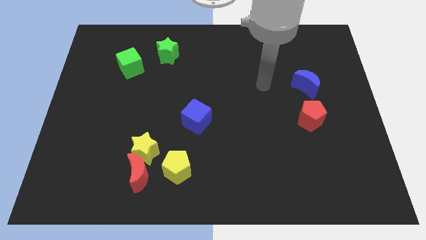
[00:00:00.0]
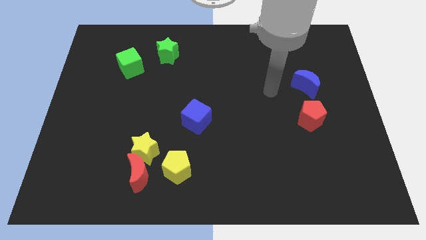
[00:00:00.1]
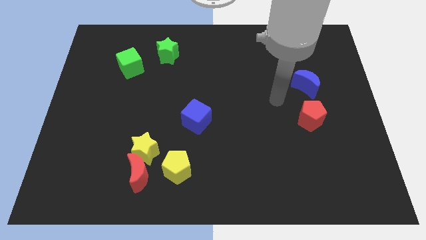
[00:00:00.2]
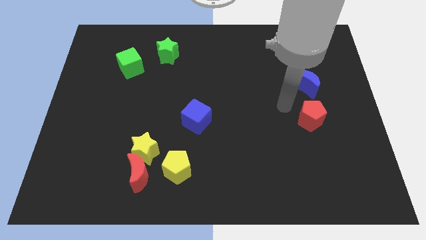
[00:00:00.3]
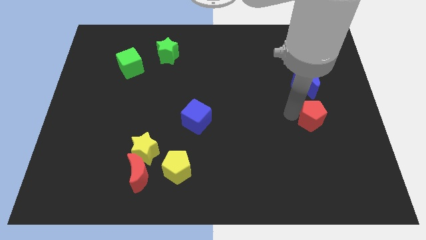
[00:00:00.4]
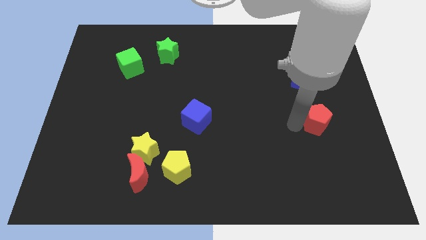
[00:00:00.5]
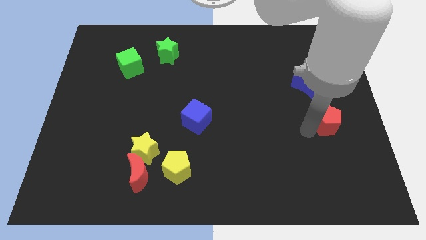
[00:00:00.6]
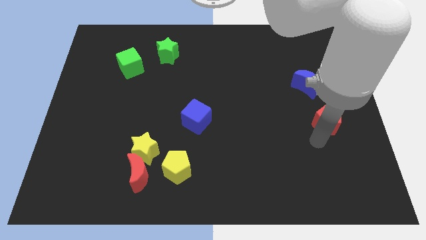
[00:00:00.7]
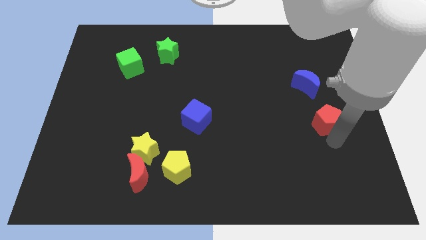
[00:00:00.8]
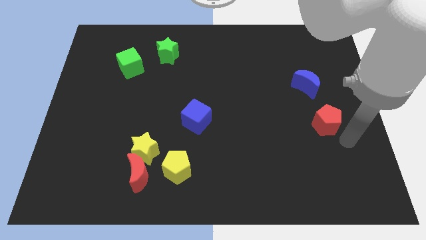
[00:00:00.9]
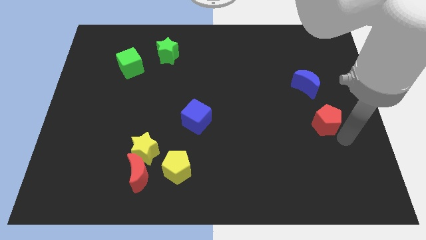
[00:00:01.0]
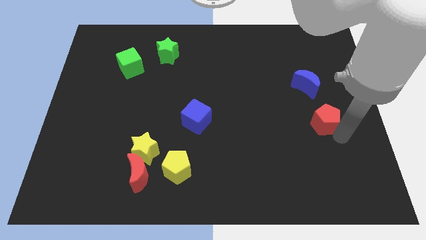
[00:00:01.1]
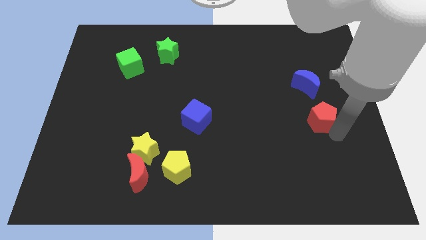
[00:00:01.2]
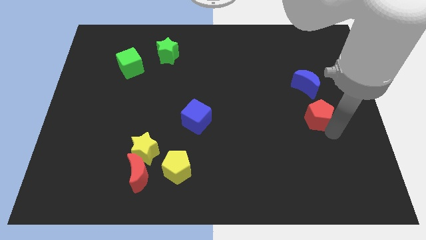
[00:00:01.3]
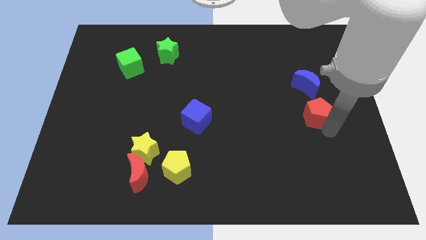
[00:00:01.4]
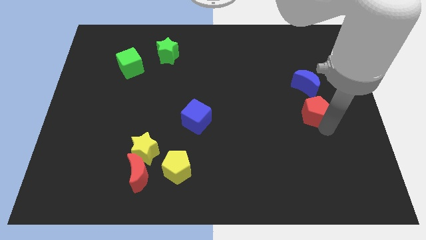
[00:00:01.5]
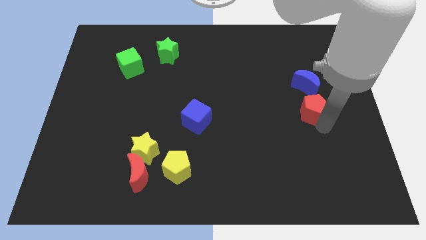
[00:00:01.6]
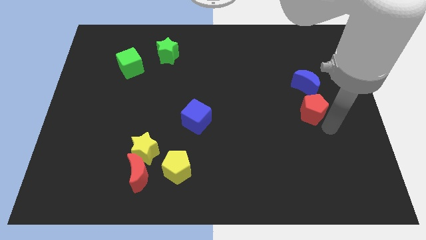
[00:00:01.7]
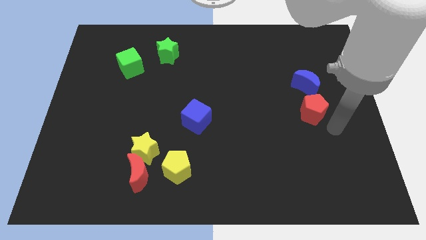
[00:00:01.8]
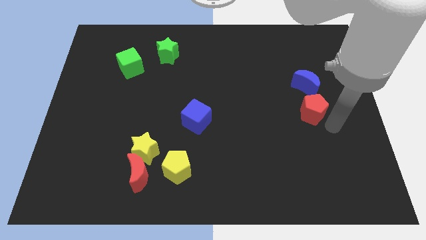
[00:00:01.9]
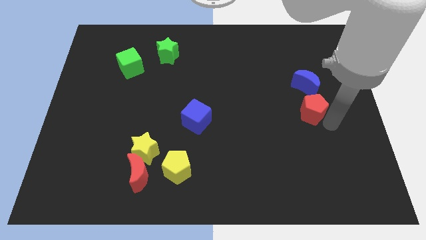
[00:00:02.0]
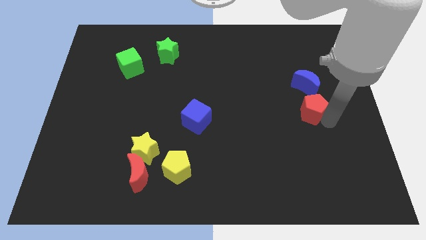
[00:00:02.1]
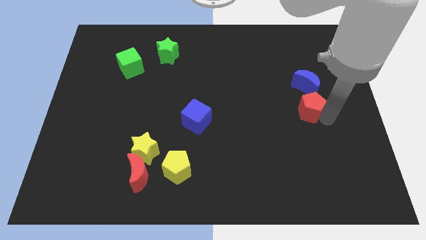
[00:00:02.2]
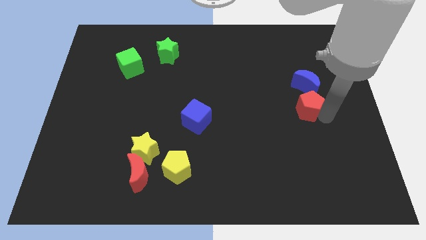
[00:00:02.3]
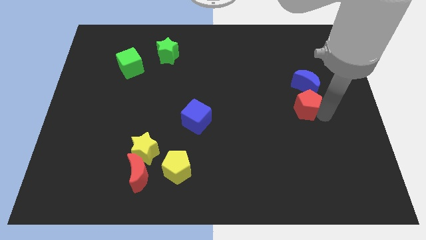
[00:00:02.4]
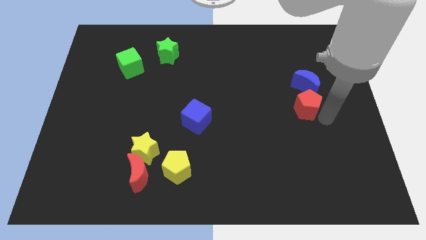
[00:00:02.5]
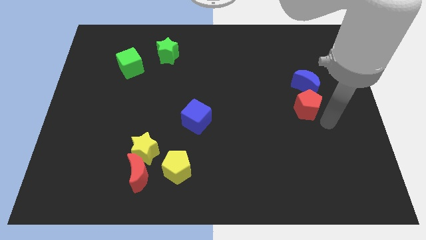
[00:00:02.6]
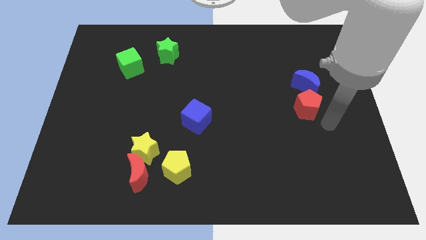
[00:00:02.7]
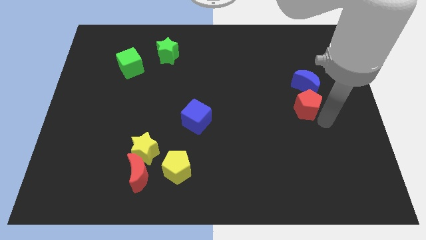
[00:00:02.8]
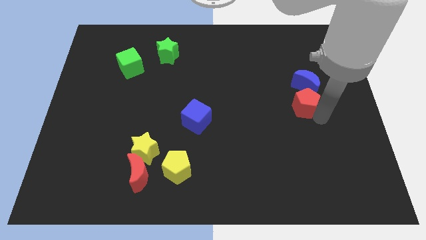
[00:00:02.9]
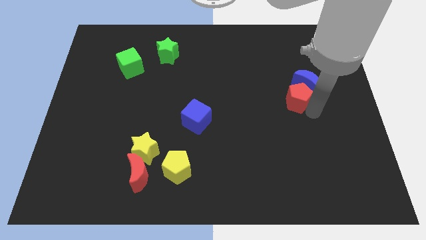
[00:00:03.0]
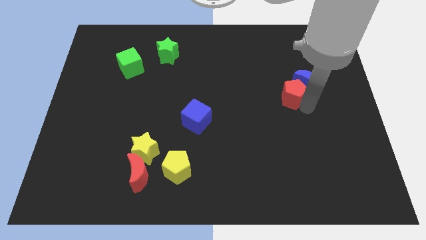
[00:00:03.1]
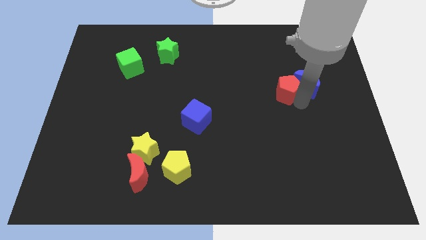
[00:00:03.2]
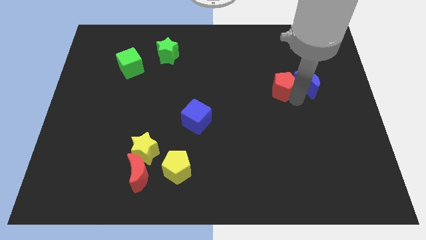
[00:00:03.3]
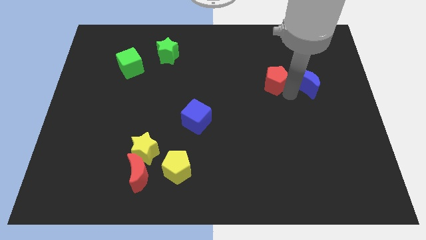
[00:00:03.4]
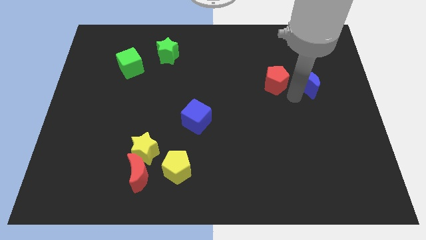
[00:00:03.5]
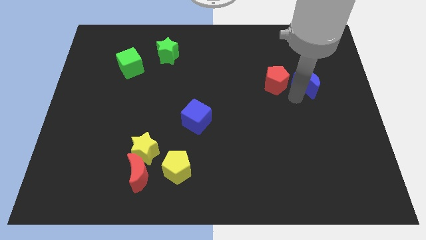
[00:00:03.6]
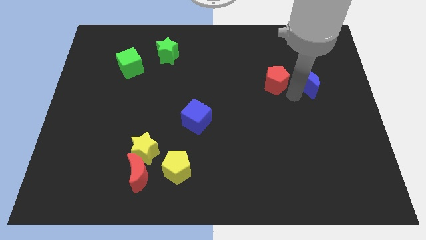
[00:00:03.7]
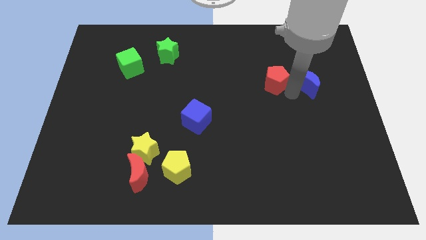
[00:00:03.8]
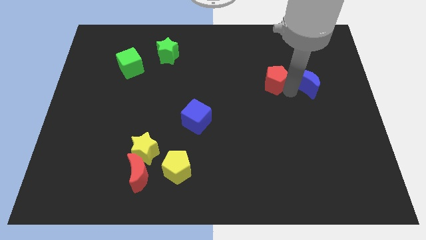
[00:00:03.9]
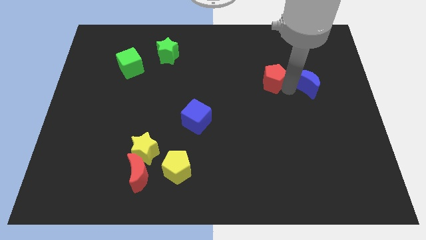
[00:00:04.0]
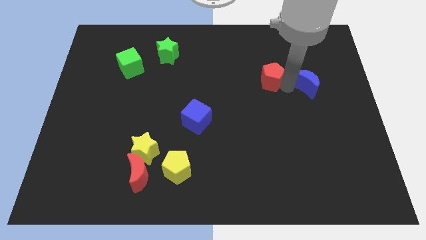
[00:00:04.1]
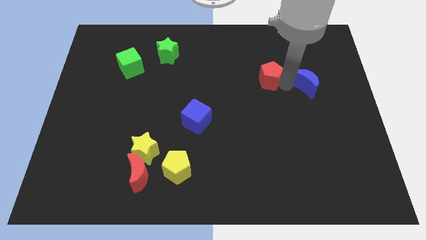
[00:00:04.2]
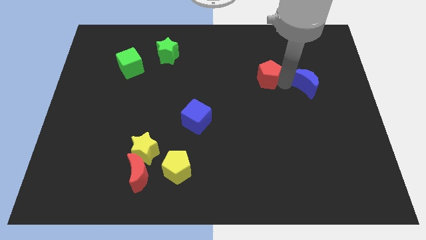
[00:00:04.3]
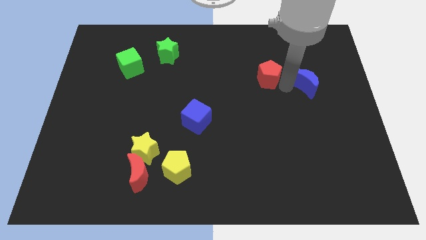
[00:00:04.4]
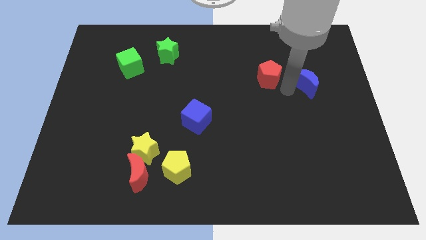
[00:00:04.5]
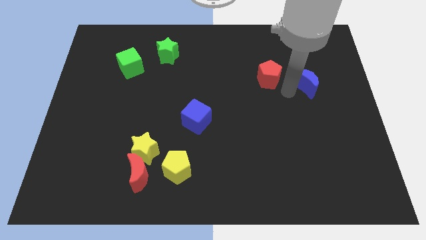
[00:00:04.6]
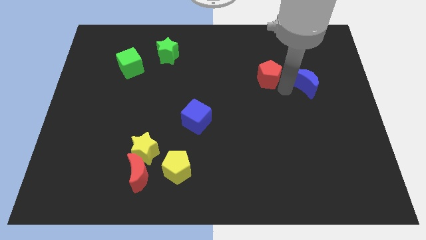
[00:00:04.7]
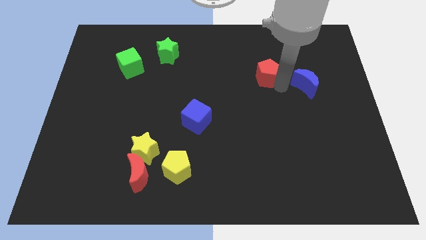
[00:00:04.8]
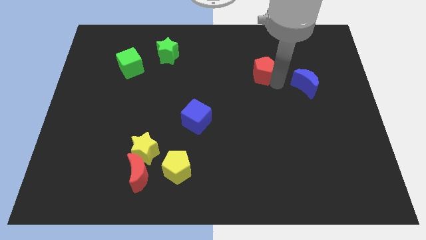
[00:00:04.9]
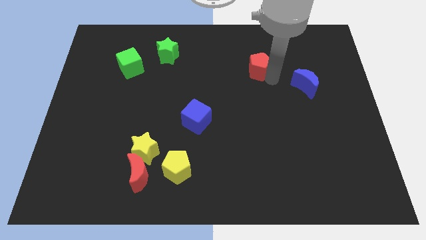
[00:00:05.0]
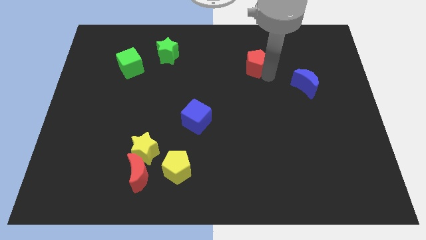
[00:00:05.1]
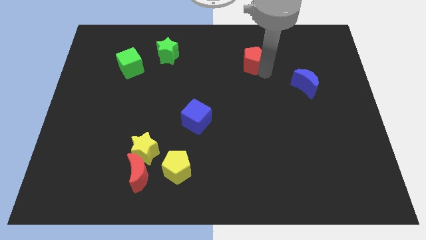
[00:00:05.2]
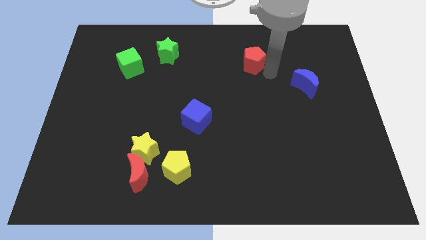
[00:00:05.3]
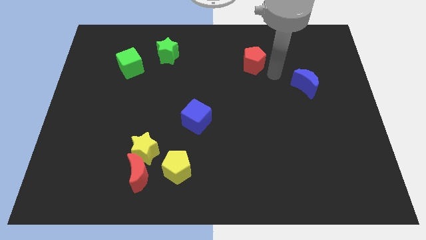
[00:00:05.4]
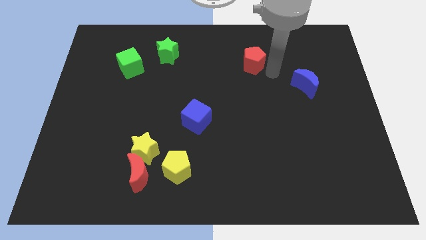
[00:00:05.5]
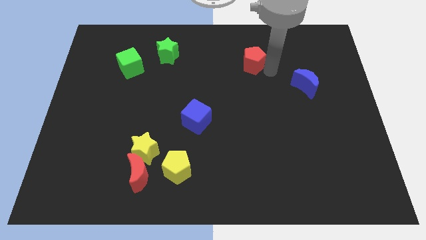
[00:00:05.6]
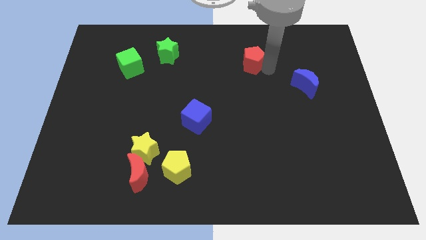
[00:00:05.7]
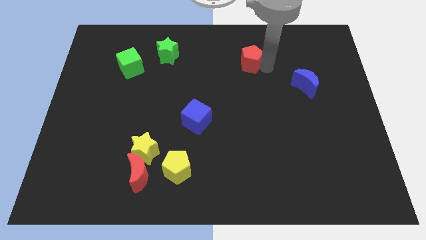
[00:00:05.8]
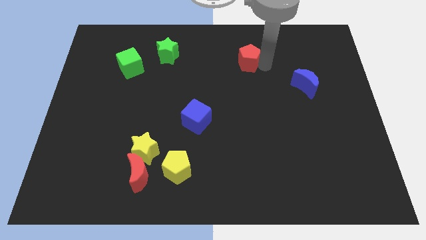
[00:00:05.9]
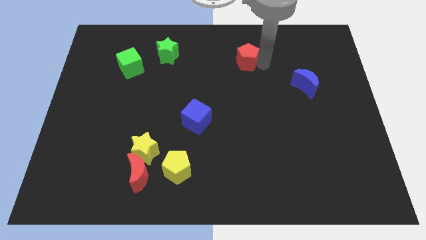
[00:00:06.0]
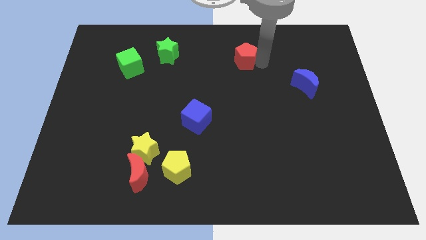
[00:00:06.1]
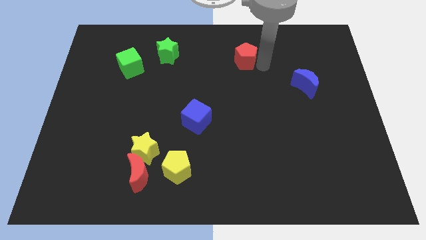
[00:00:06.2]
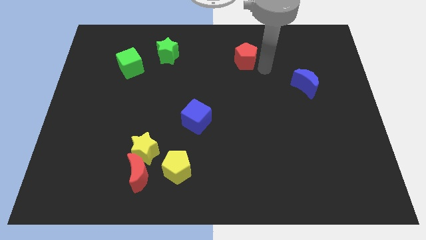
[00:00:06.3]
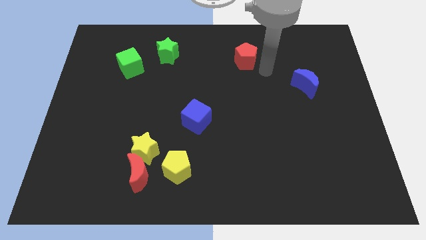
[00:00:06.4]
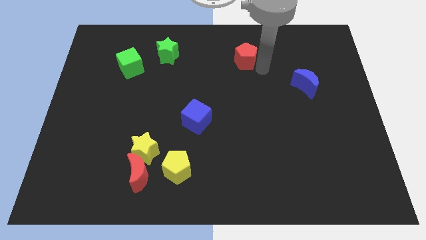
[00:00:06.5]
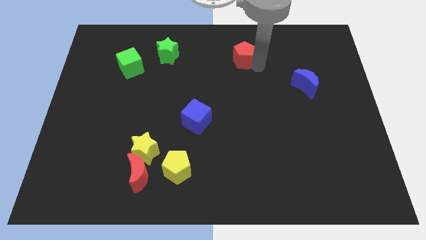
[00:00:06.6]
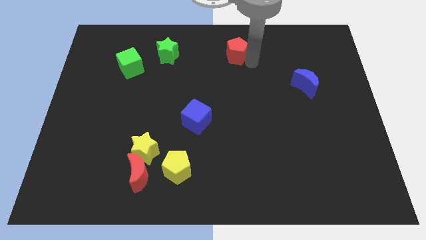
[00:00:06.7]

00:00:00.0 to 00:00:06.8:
slide the red pentagon to the towards your base
